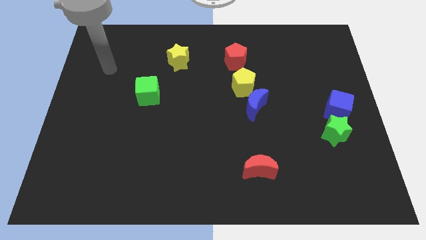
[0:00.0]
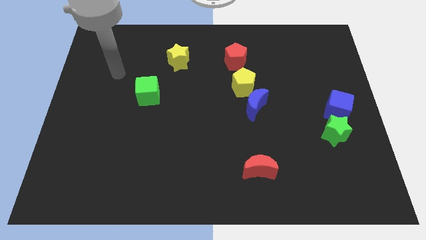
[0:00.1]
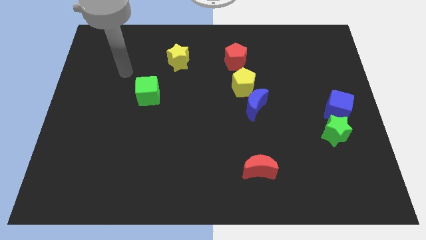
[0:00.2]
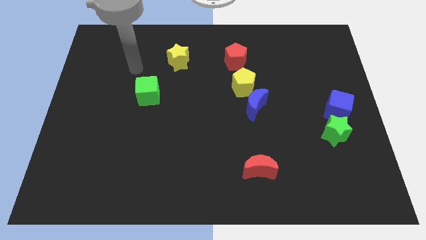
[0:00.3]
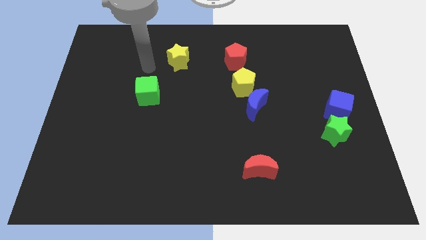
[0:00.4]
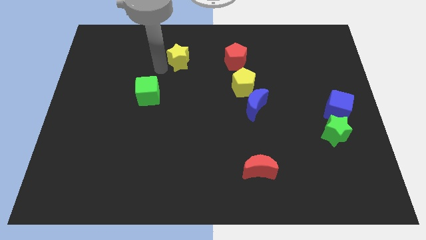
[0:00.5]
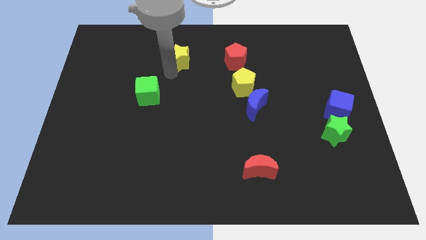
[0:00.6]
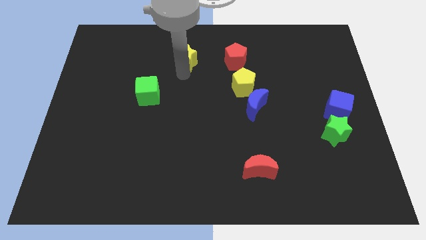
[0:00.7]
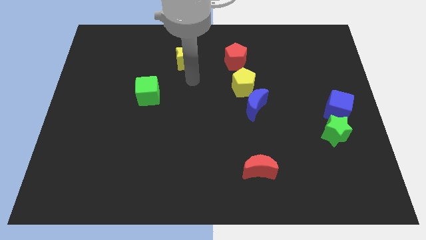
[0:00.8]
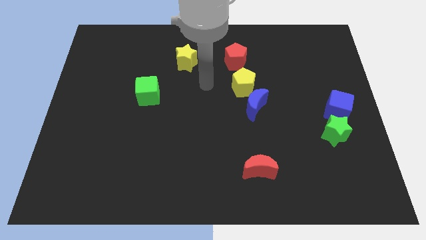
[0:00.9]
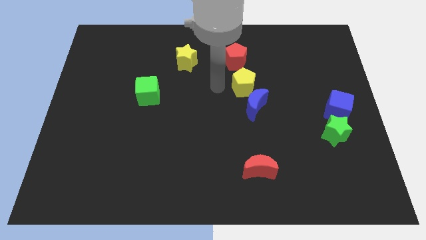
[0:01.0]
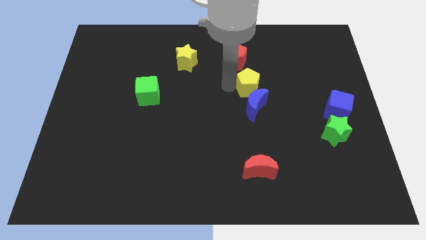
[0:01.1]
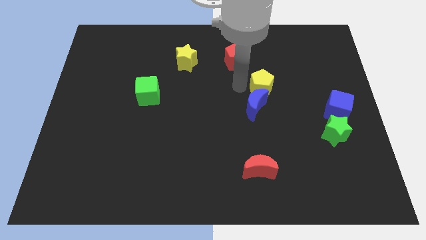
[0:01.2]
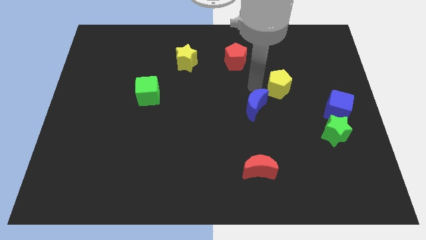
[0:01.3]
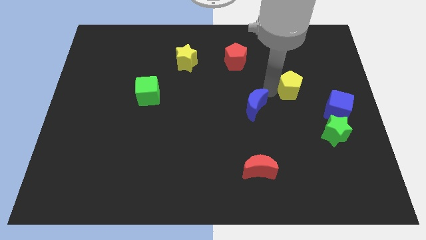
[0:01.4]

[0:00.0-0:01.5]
separate the blue moon from the yellow pentagon

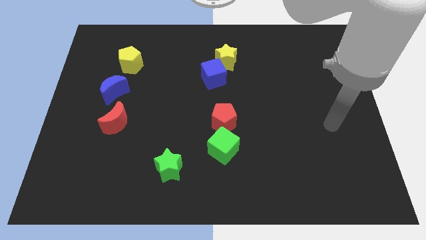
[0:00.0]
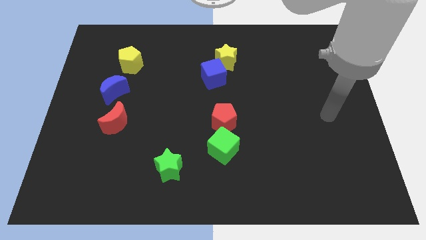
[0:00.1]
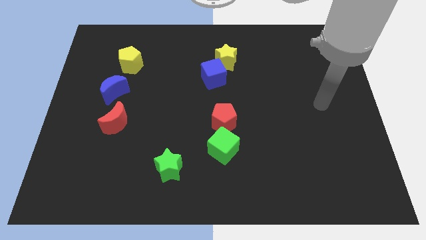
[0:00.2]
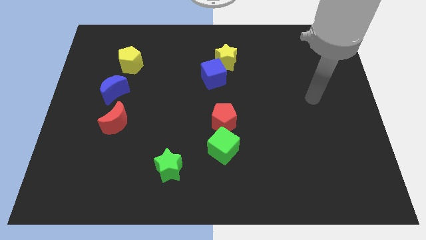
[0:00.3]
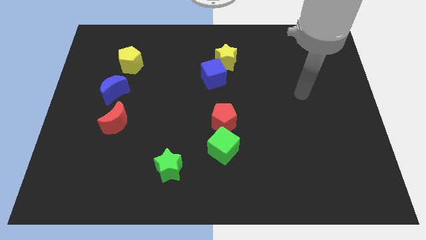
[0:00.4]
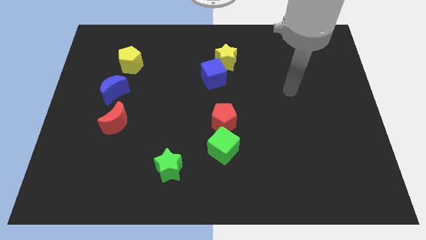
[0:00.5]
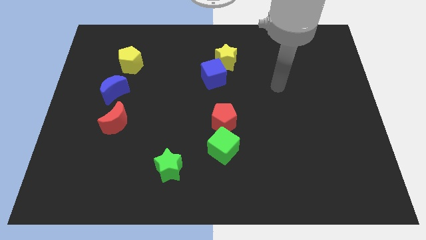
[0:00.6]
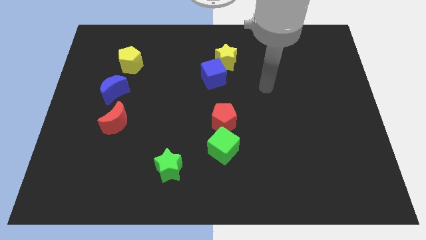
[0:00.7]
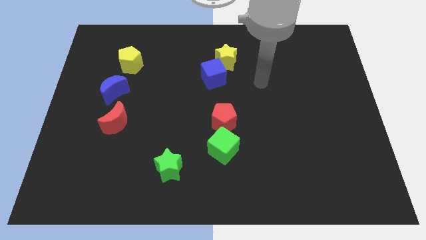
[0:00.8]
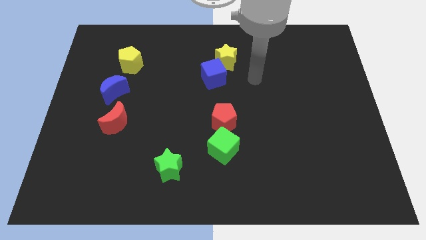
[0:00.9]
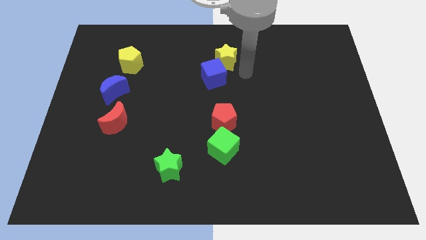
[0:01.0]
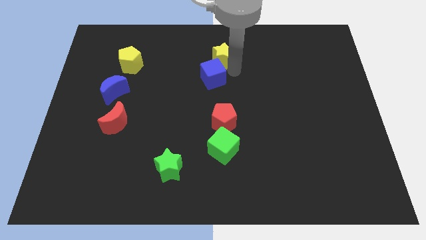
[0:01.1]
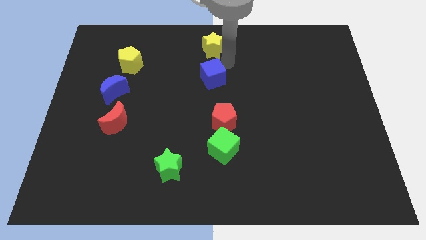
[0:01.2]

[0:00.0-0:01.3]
separate the blue cube from the yellow star

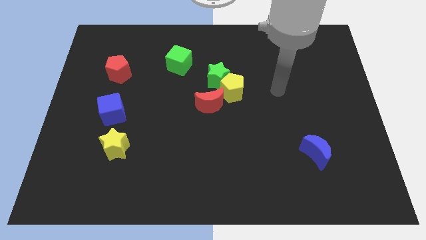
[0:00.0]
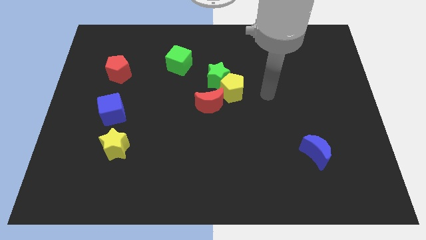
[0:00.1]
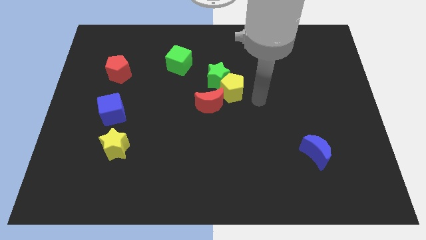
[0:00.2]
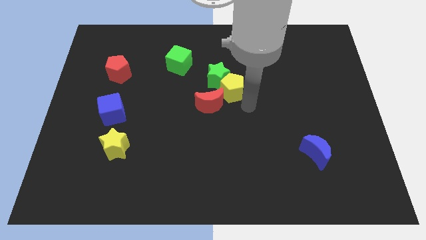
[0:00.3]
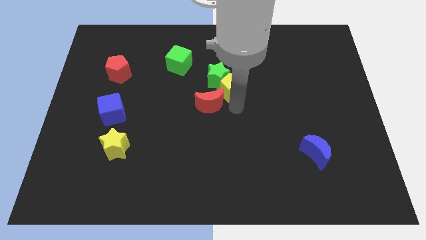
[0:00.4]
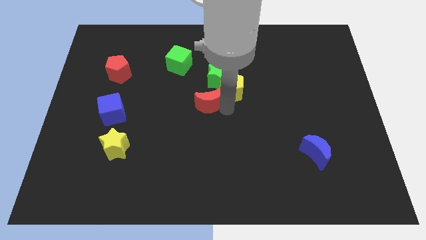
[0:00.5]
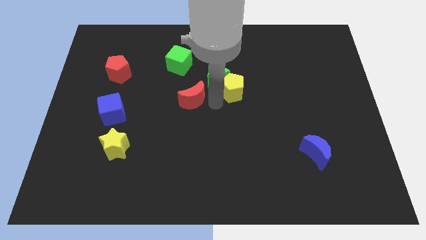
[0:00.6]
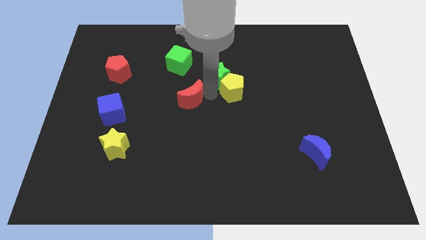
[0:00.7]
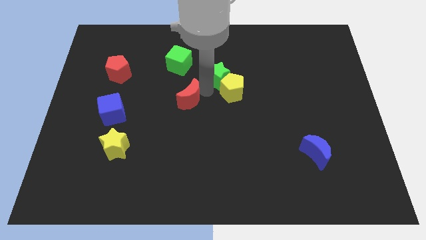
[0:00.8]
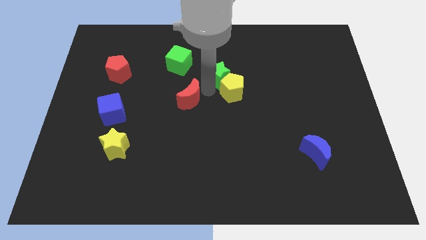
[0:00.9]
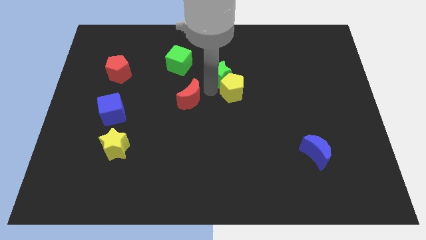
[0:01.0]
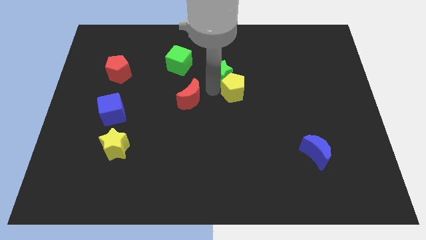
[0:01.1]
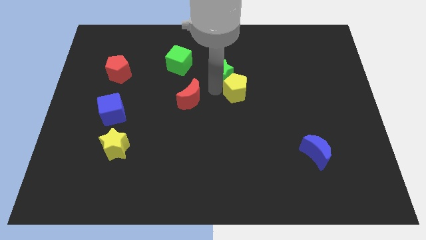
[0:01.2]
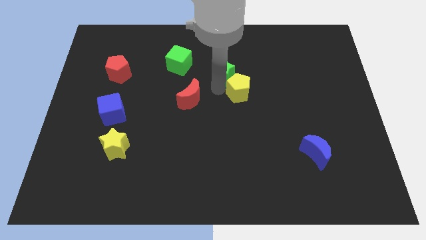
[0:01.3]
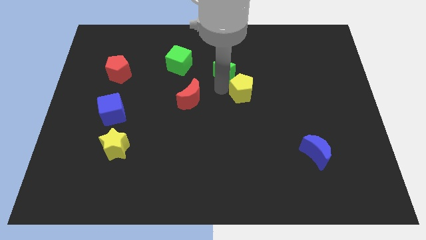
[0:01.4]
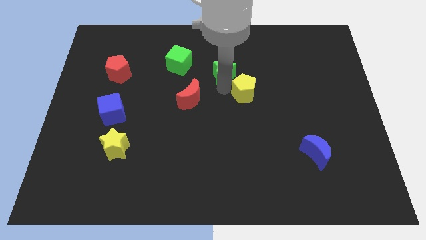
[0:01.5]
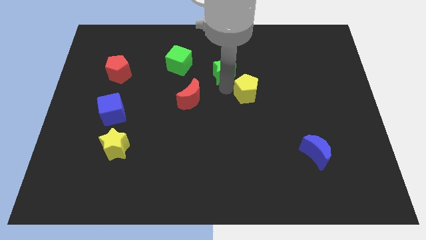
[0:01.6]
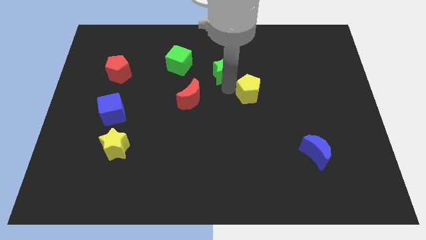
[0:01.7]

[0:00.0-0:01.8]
move the yellow pentagon away from the green star and red moon

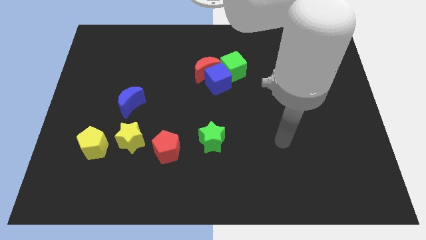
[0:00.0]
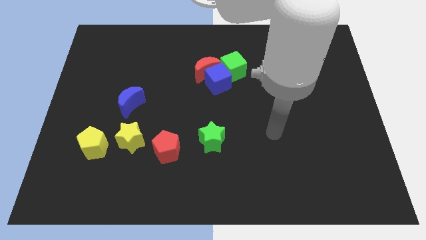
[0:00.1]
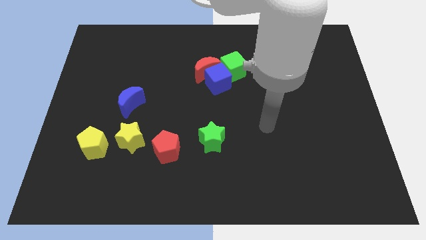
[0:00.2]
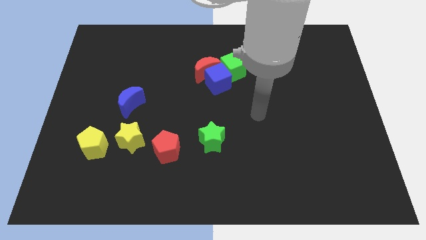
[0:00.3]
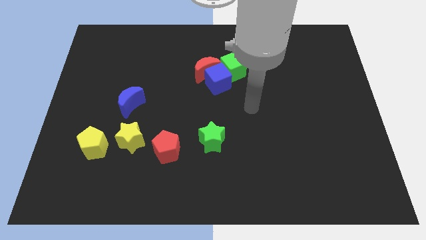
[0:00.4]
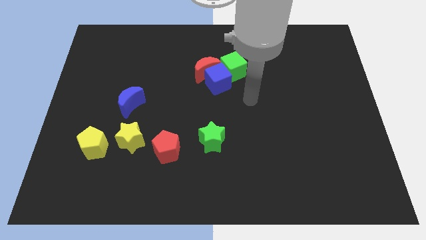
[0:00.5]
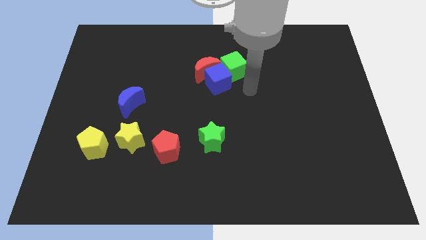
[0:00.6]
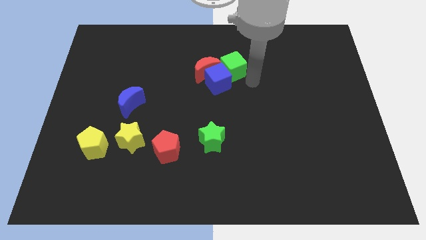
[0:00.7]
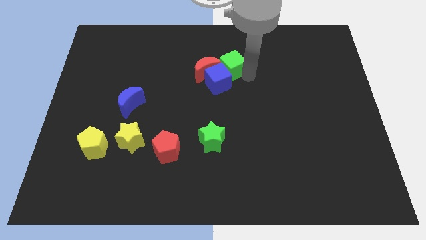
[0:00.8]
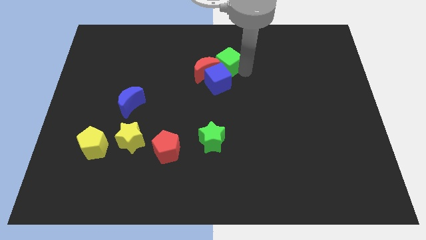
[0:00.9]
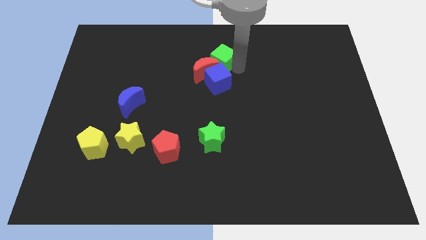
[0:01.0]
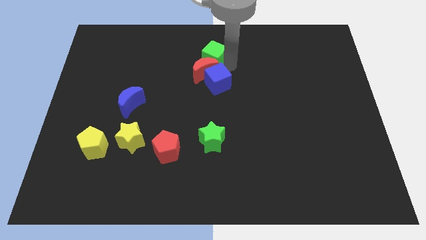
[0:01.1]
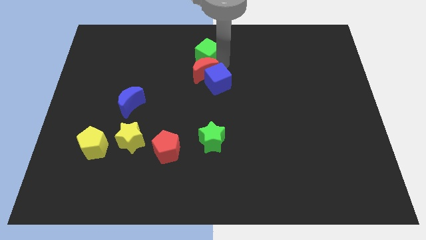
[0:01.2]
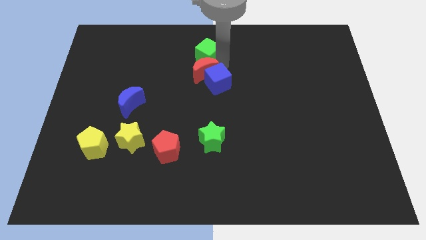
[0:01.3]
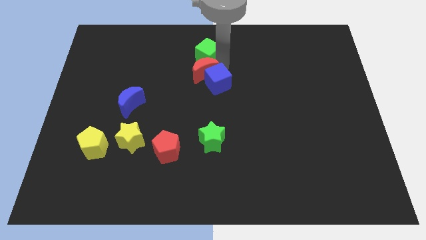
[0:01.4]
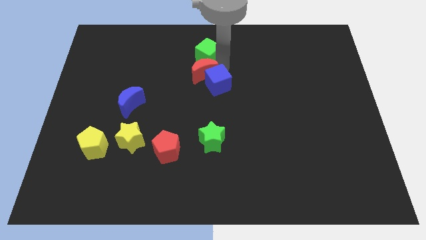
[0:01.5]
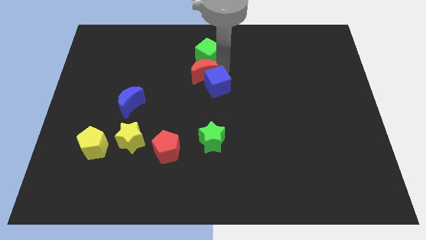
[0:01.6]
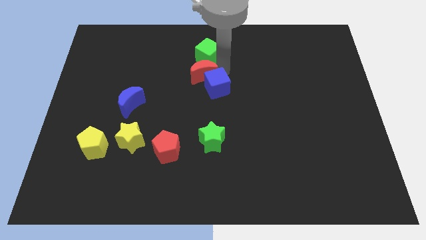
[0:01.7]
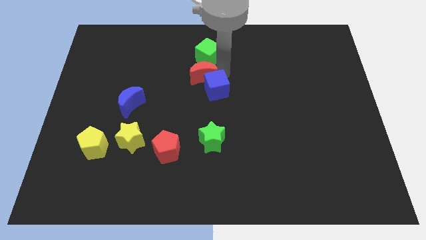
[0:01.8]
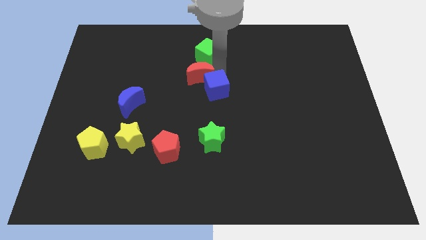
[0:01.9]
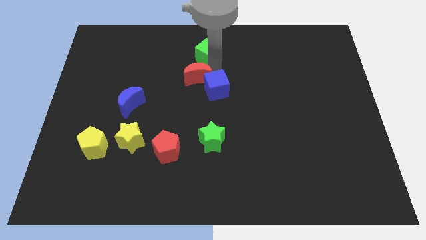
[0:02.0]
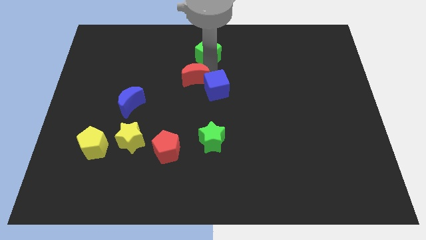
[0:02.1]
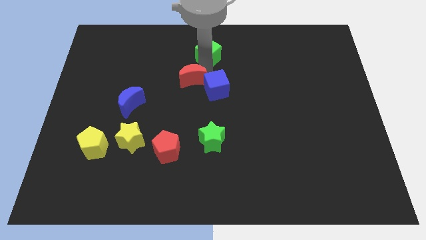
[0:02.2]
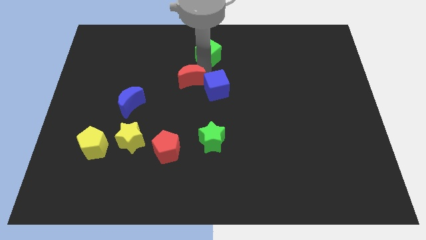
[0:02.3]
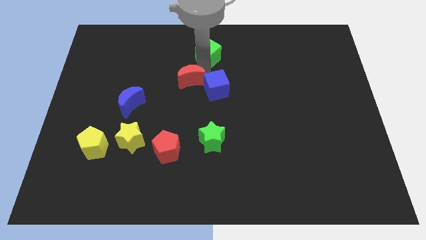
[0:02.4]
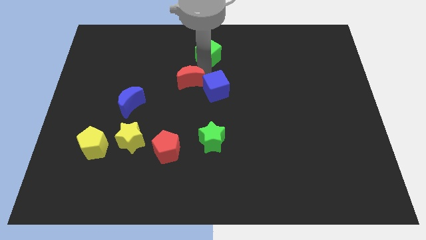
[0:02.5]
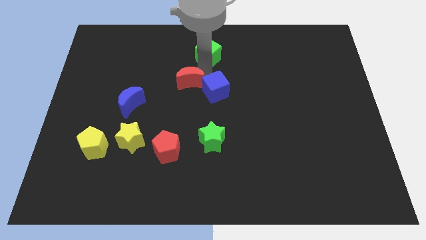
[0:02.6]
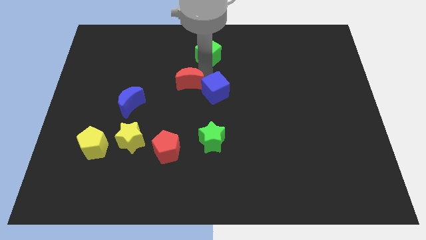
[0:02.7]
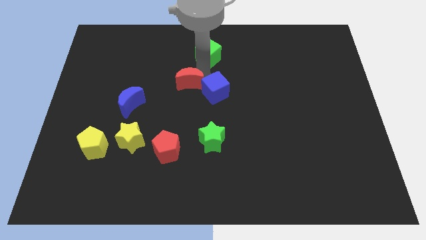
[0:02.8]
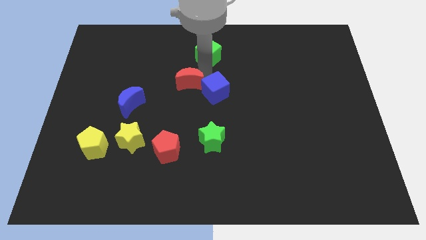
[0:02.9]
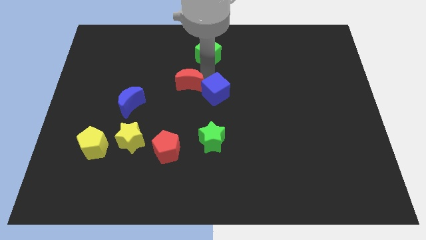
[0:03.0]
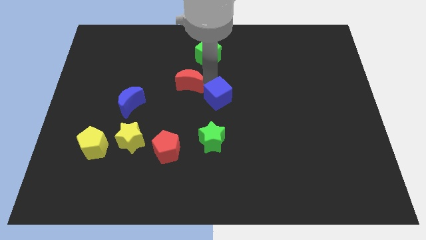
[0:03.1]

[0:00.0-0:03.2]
move the blue cube away from the red moon and green cube

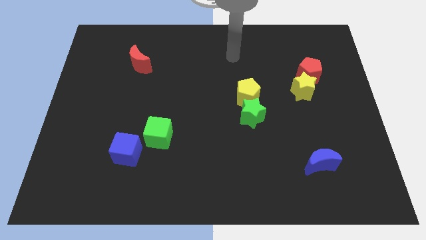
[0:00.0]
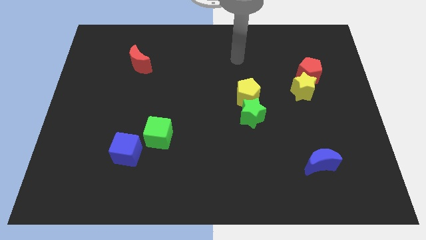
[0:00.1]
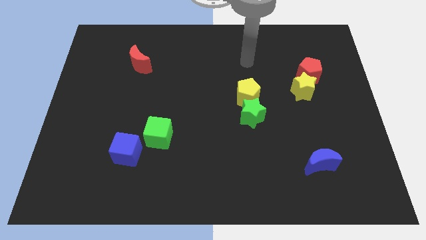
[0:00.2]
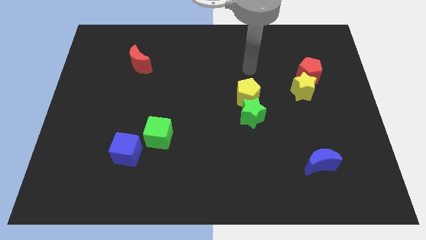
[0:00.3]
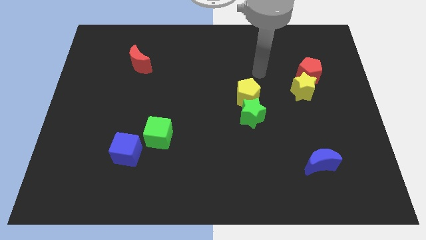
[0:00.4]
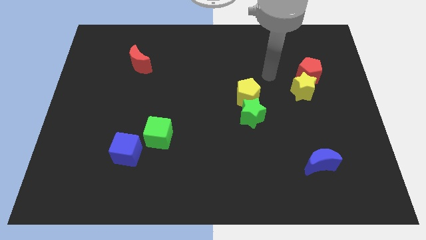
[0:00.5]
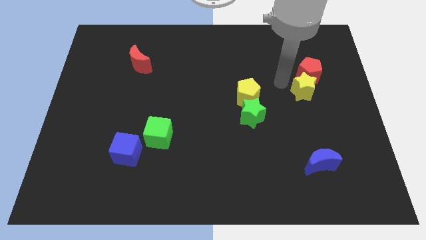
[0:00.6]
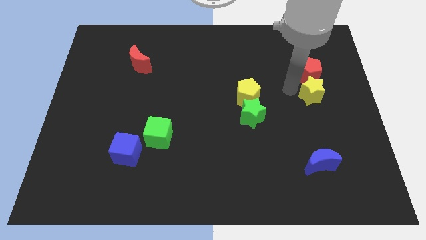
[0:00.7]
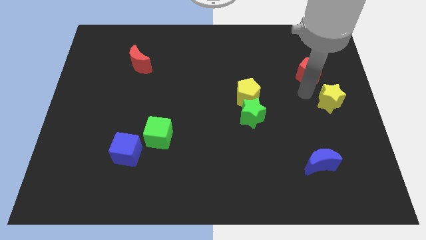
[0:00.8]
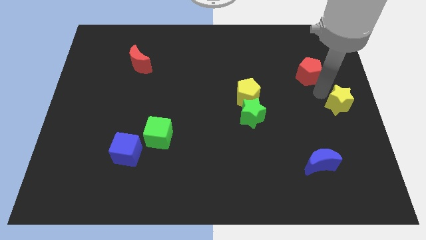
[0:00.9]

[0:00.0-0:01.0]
move the red pentagon away from the yellow star

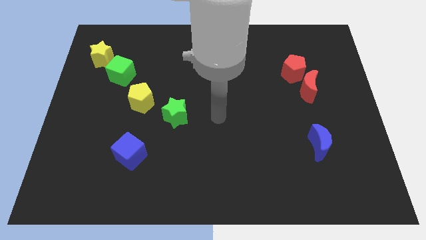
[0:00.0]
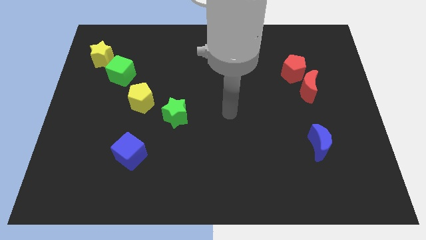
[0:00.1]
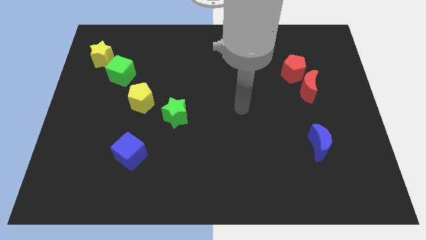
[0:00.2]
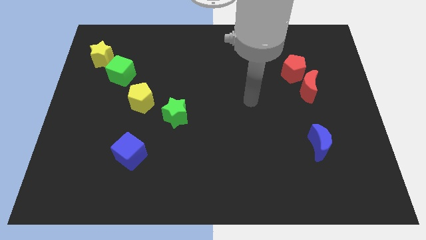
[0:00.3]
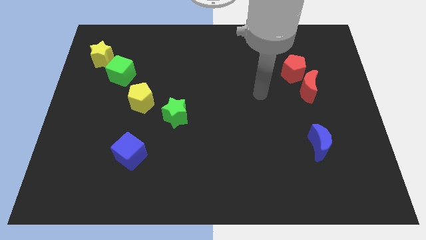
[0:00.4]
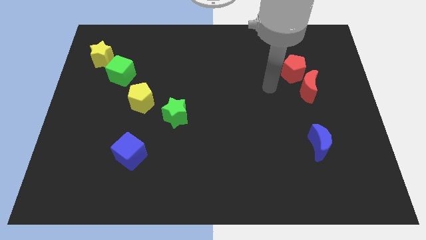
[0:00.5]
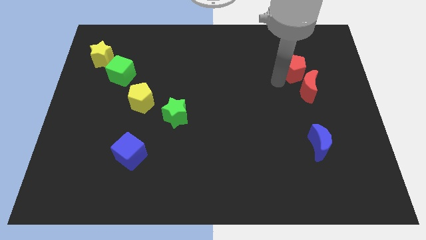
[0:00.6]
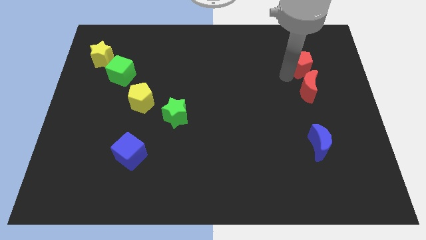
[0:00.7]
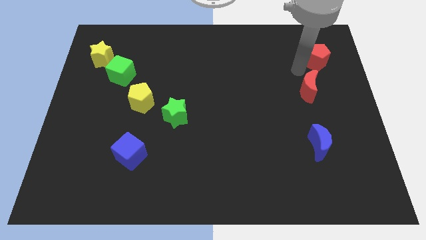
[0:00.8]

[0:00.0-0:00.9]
separate the red moon from the red pentagon
